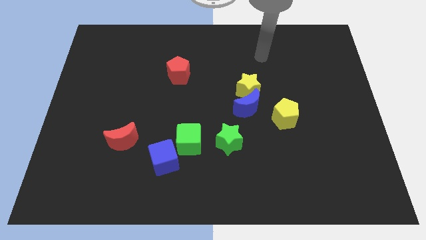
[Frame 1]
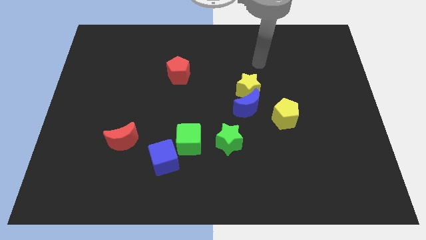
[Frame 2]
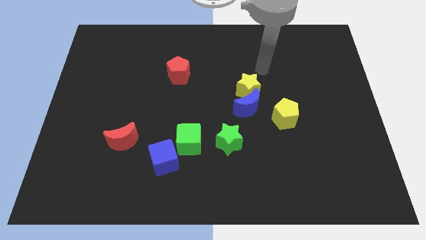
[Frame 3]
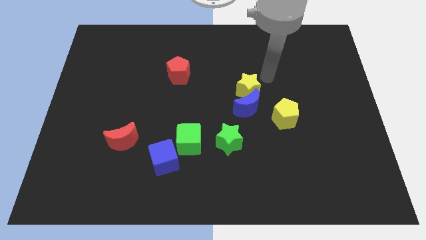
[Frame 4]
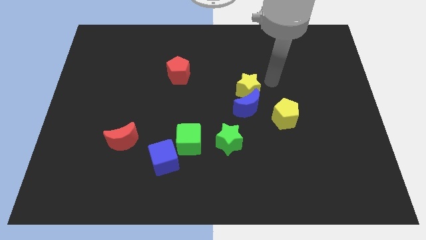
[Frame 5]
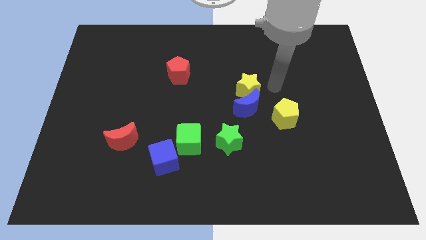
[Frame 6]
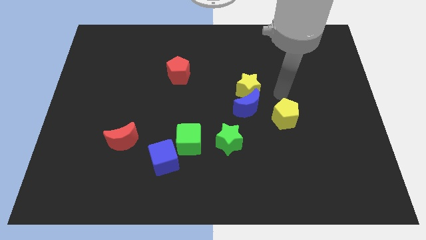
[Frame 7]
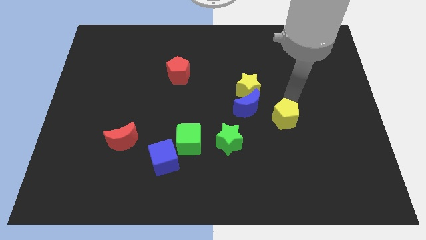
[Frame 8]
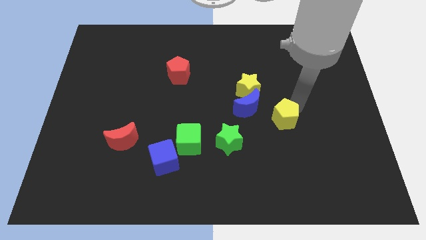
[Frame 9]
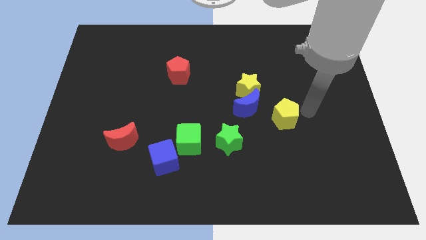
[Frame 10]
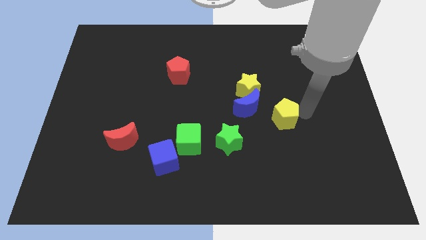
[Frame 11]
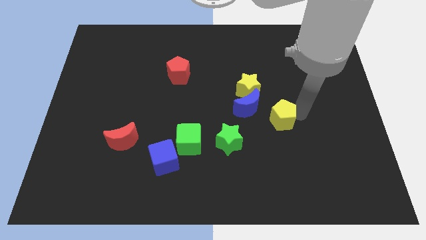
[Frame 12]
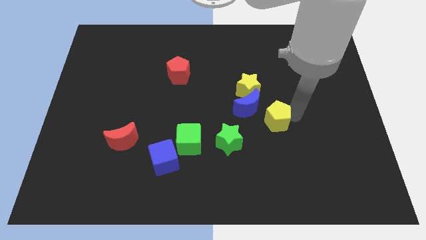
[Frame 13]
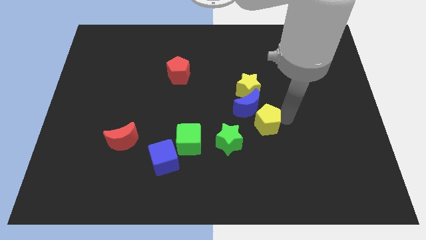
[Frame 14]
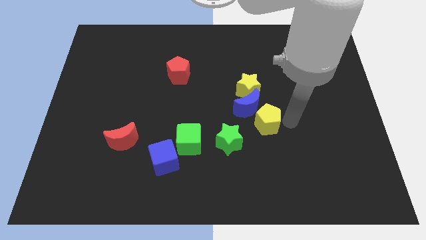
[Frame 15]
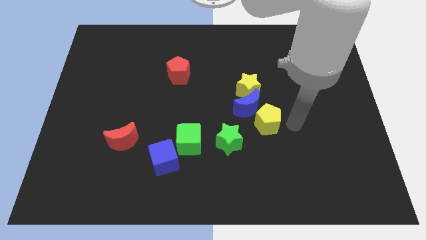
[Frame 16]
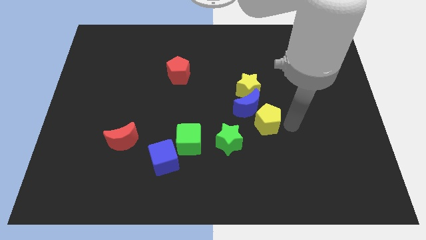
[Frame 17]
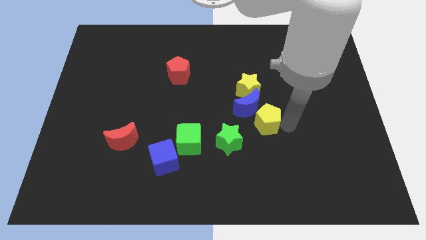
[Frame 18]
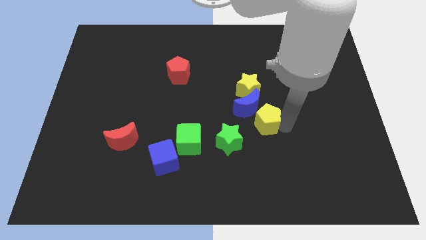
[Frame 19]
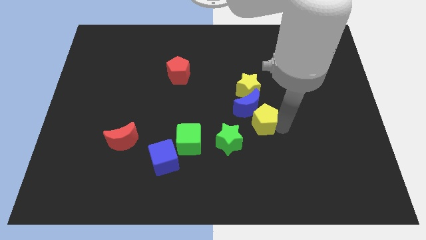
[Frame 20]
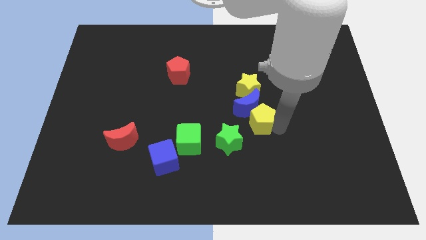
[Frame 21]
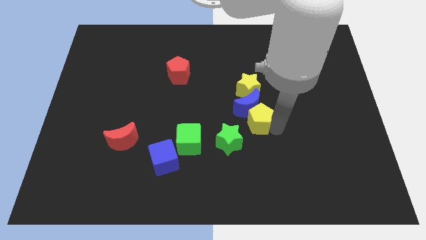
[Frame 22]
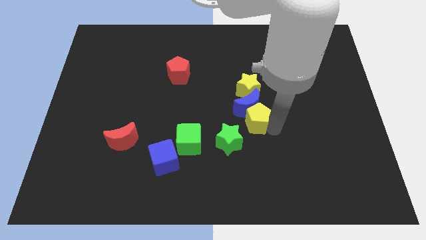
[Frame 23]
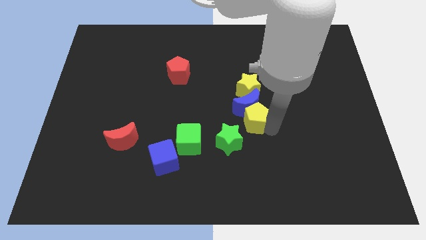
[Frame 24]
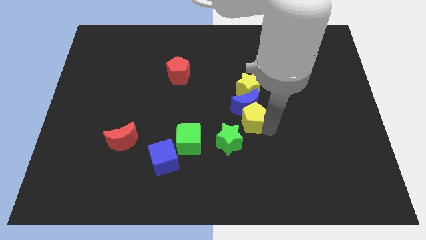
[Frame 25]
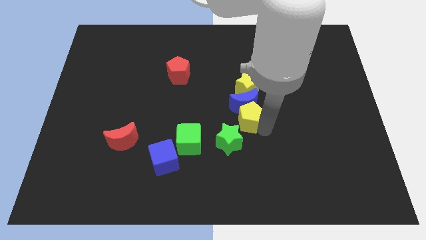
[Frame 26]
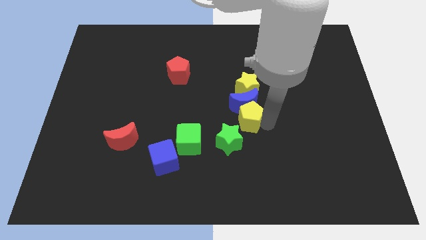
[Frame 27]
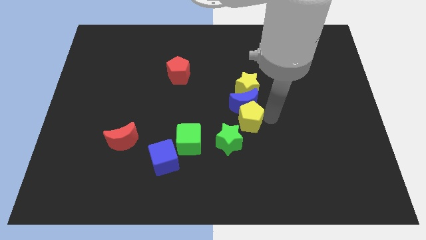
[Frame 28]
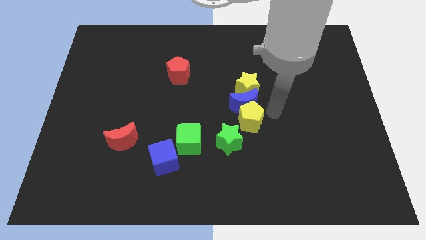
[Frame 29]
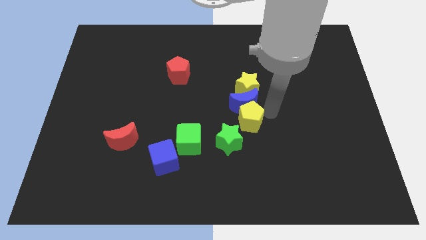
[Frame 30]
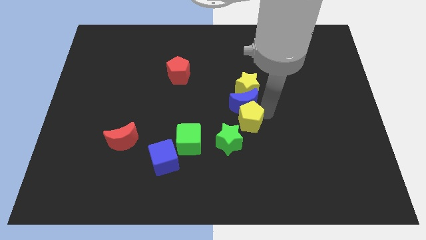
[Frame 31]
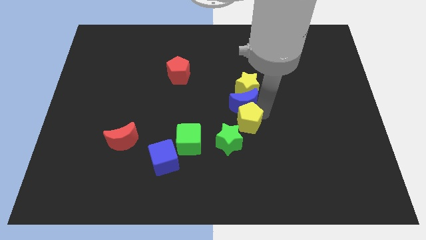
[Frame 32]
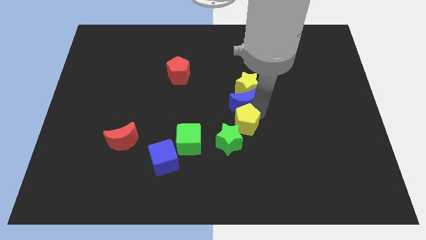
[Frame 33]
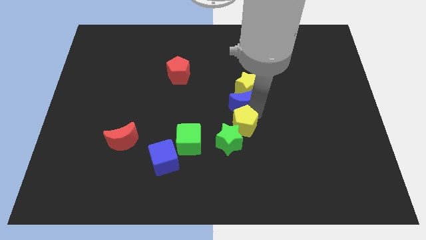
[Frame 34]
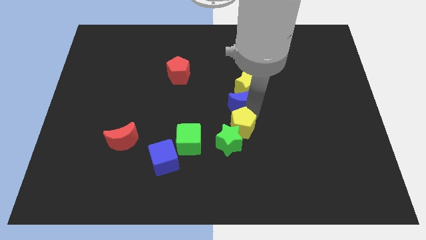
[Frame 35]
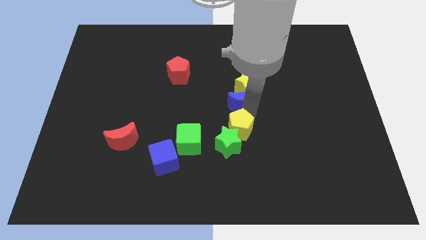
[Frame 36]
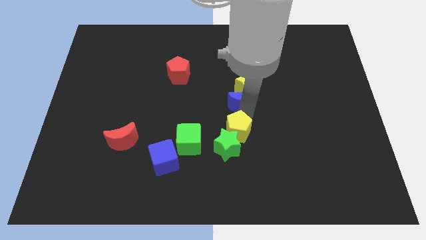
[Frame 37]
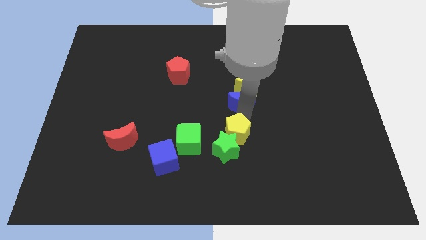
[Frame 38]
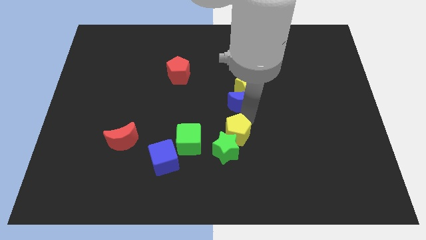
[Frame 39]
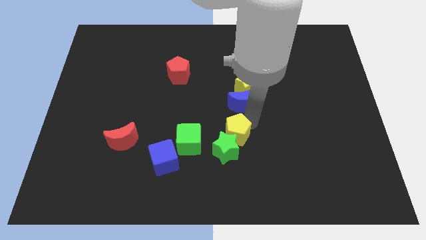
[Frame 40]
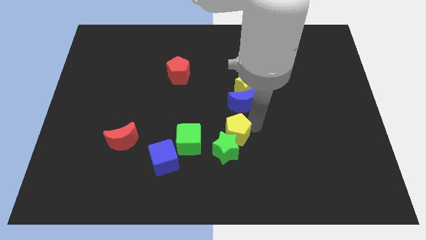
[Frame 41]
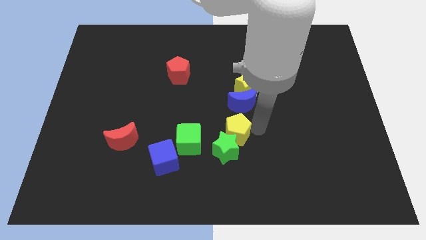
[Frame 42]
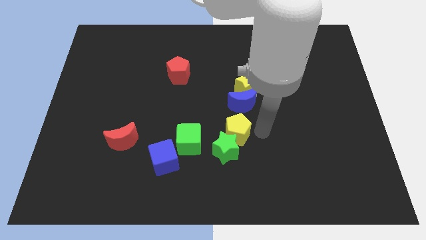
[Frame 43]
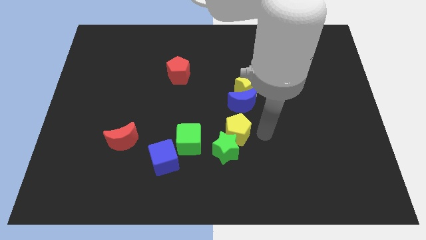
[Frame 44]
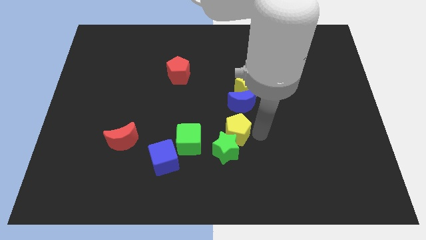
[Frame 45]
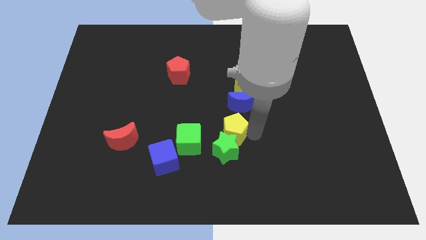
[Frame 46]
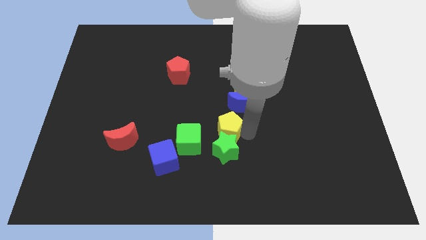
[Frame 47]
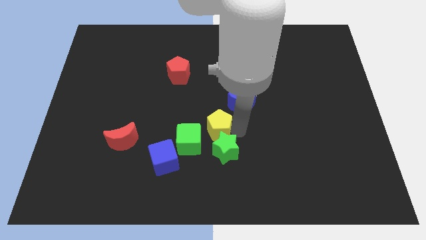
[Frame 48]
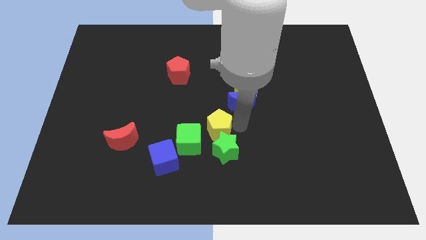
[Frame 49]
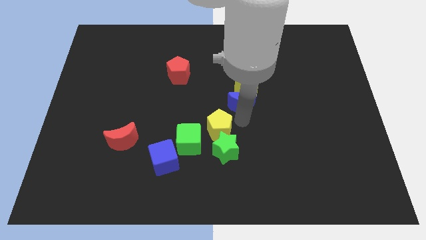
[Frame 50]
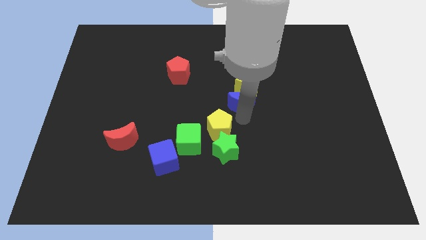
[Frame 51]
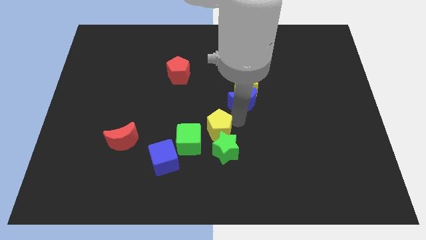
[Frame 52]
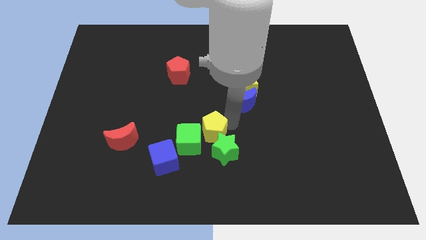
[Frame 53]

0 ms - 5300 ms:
push the yellow pentagon towards the green cube

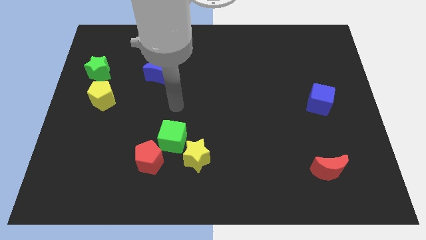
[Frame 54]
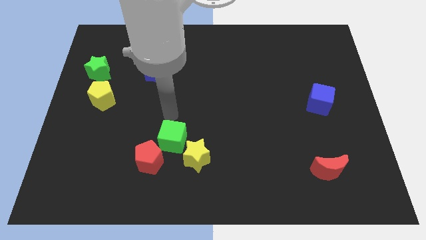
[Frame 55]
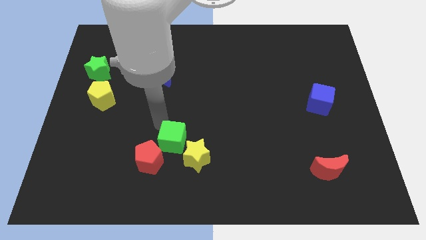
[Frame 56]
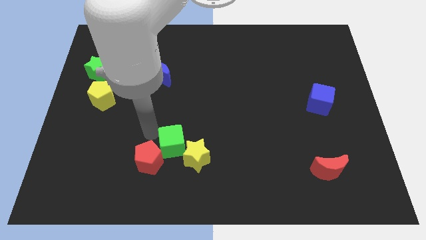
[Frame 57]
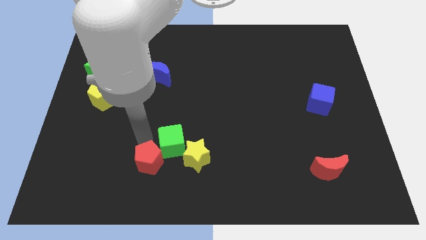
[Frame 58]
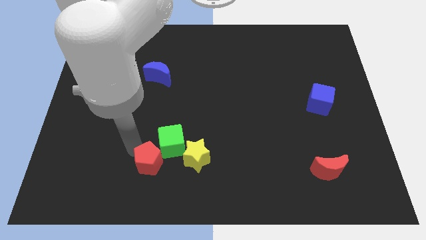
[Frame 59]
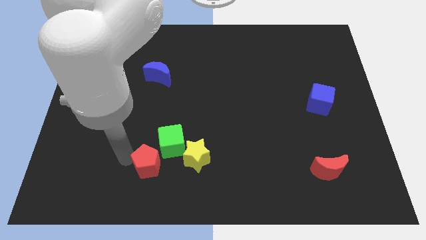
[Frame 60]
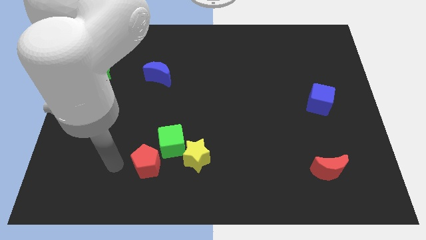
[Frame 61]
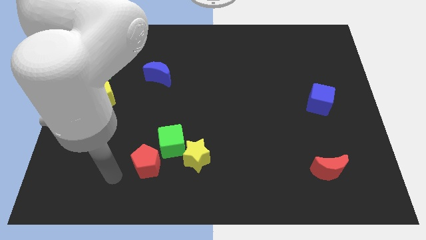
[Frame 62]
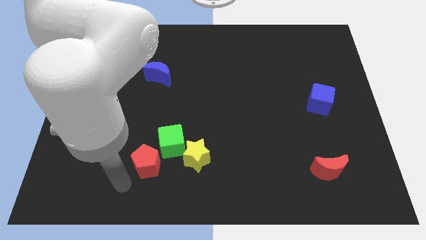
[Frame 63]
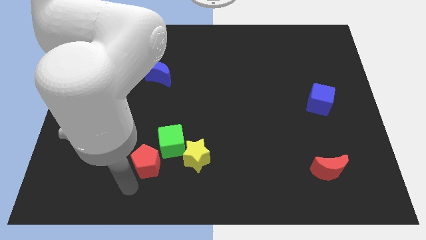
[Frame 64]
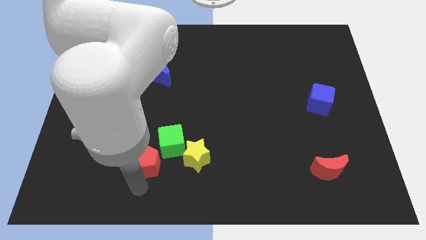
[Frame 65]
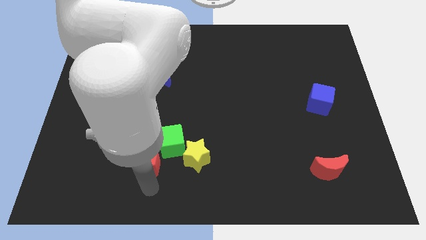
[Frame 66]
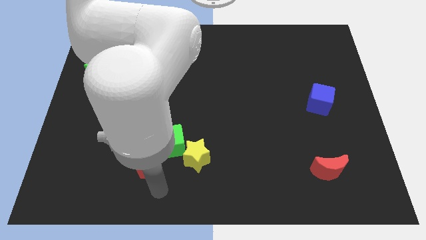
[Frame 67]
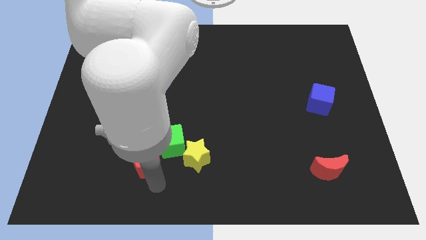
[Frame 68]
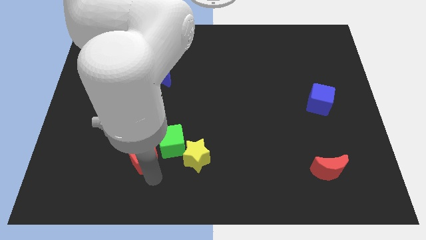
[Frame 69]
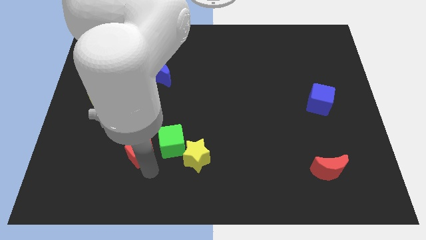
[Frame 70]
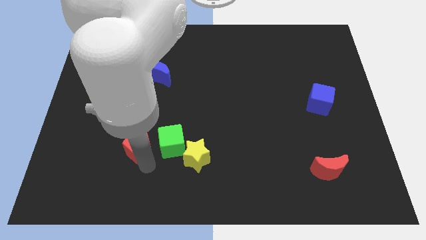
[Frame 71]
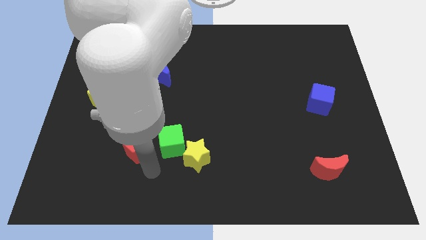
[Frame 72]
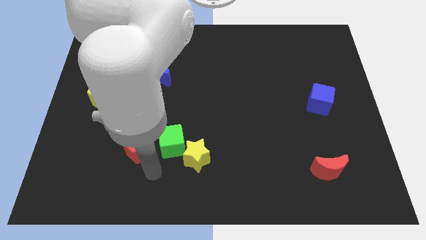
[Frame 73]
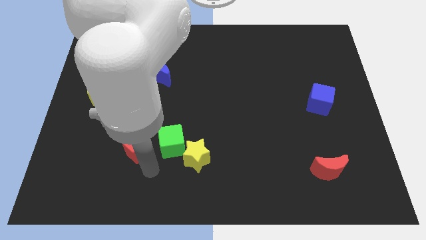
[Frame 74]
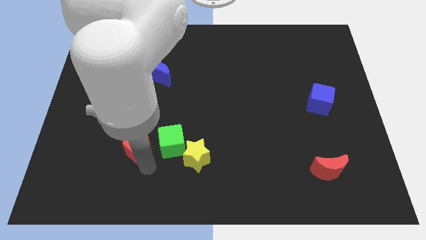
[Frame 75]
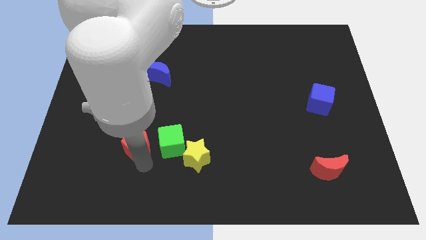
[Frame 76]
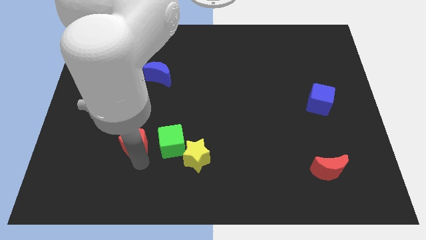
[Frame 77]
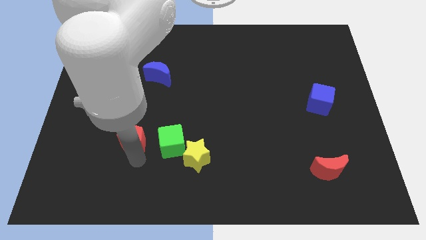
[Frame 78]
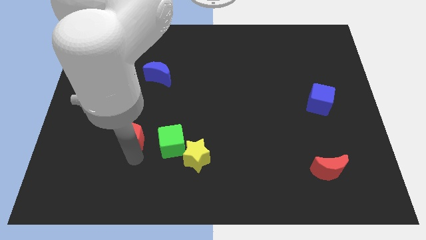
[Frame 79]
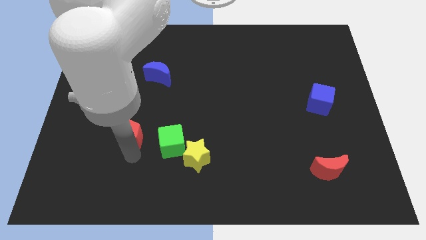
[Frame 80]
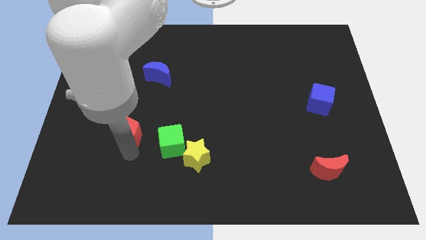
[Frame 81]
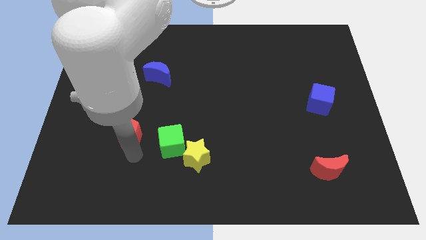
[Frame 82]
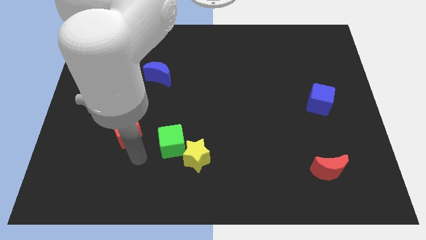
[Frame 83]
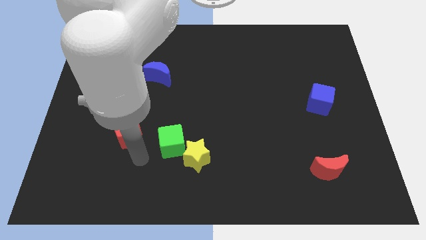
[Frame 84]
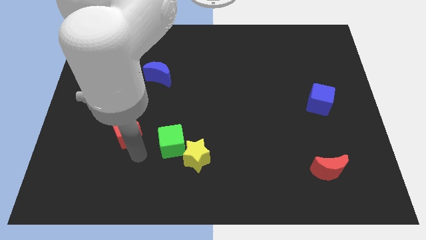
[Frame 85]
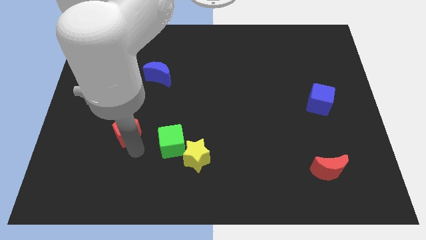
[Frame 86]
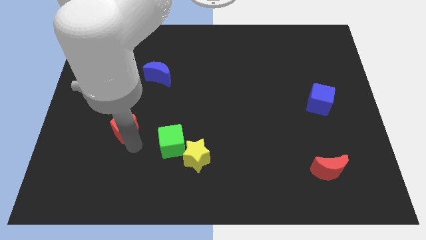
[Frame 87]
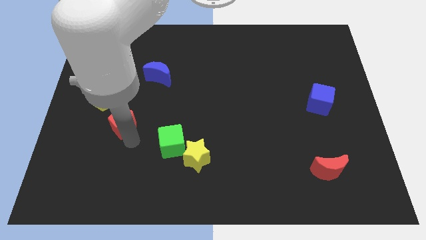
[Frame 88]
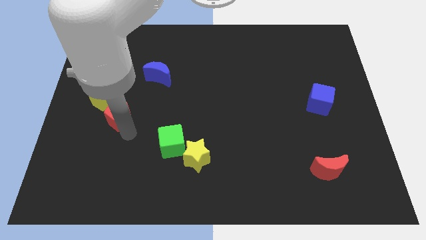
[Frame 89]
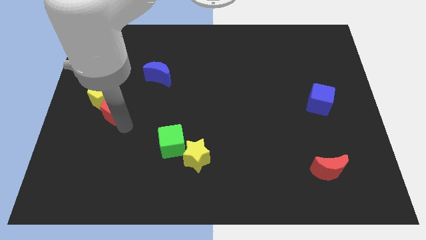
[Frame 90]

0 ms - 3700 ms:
push the red pentagon next to the yellow pentagon
